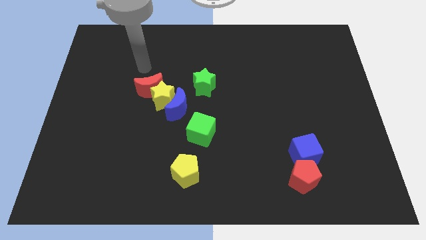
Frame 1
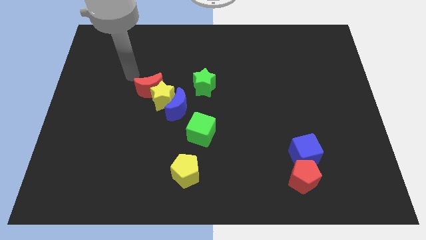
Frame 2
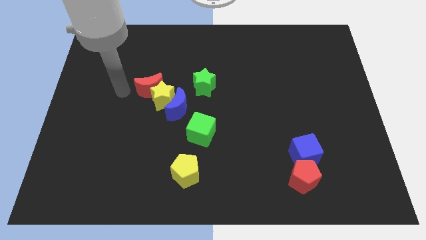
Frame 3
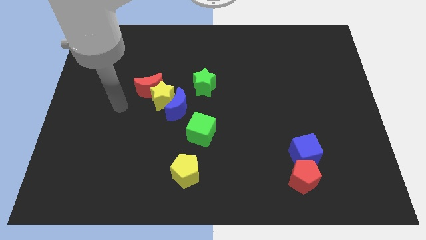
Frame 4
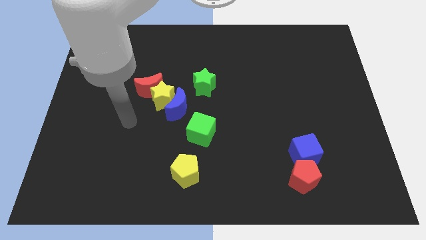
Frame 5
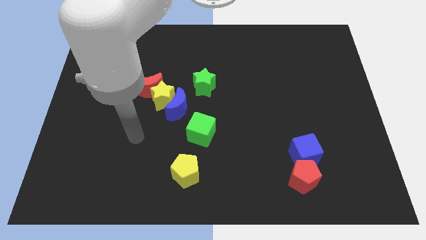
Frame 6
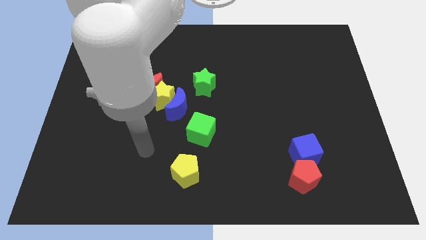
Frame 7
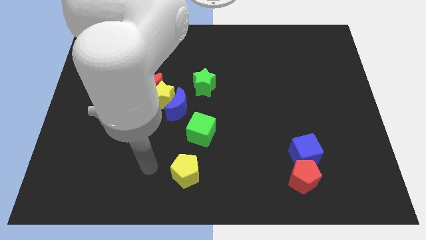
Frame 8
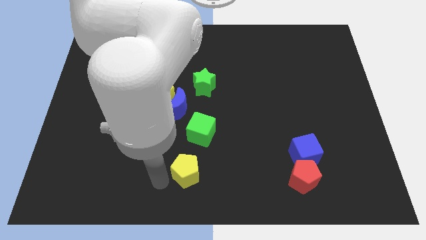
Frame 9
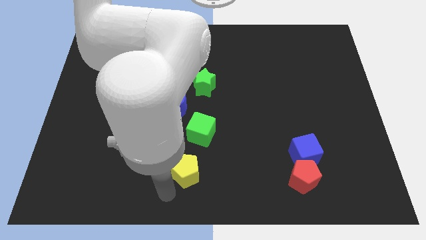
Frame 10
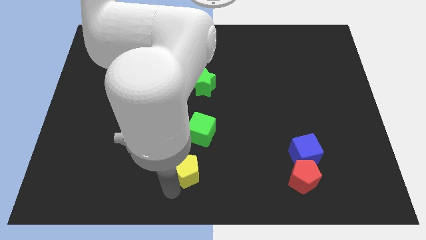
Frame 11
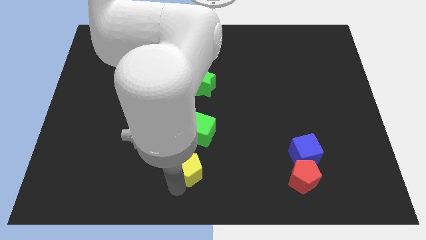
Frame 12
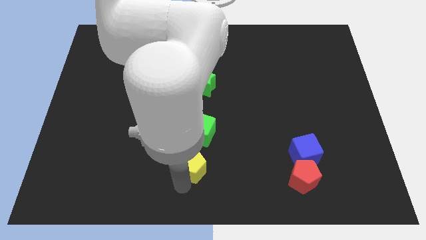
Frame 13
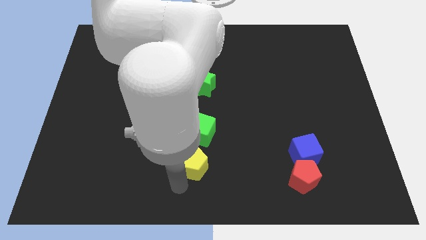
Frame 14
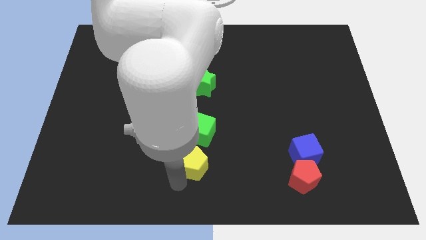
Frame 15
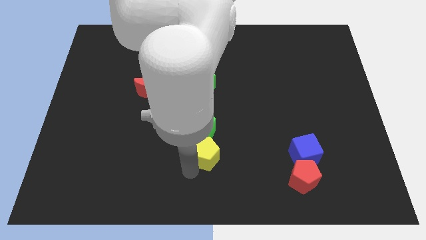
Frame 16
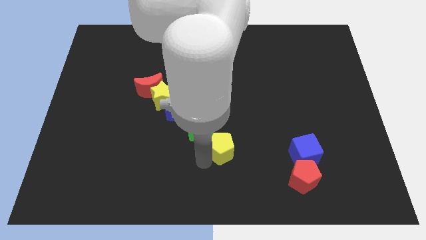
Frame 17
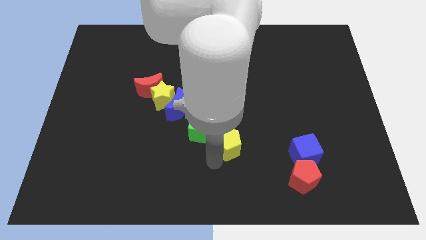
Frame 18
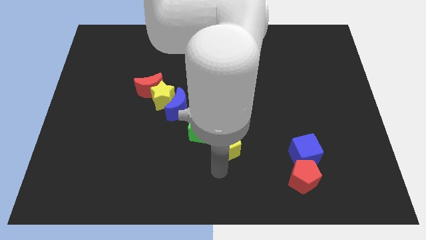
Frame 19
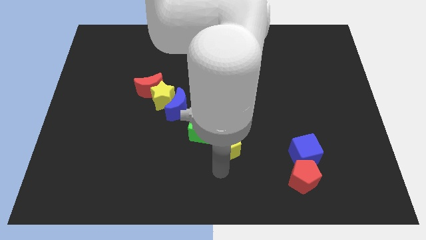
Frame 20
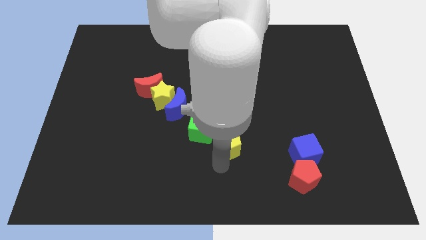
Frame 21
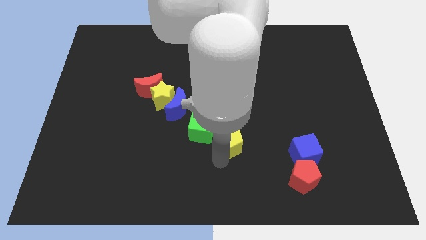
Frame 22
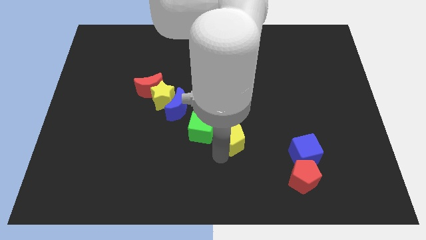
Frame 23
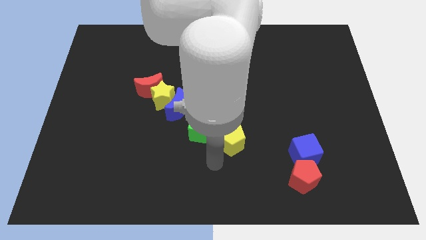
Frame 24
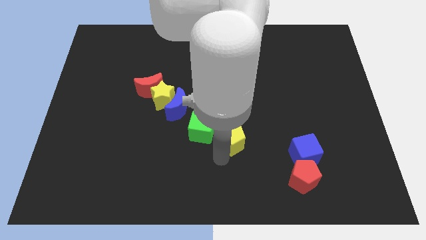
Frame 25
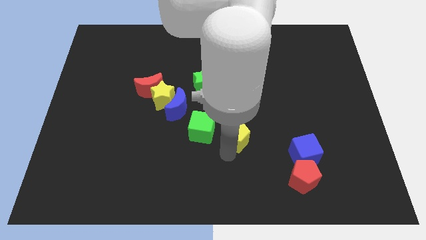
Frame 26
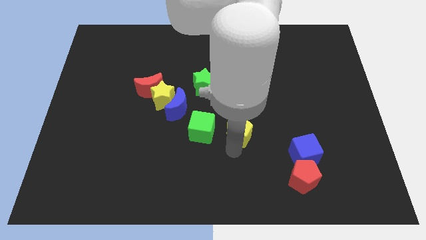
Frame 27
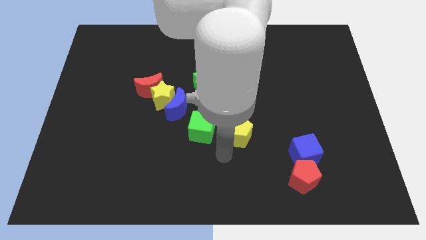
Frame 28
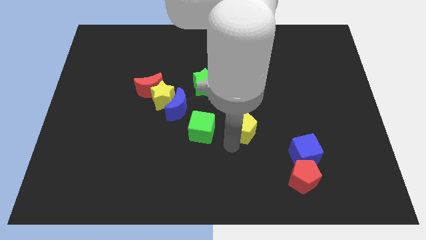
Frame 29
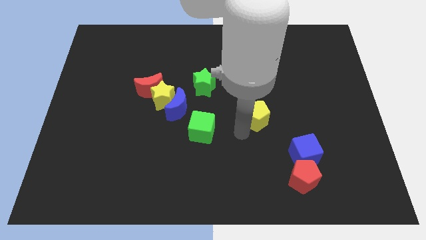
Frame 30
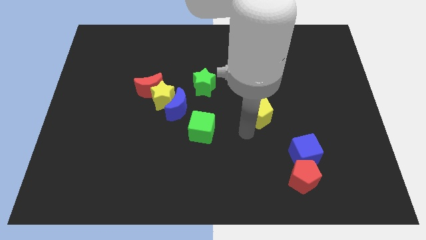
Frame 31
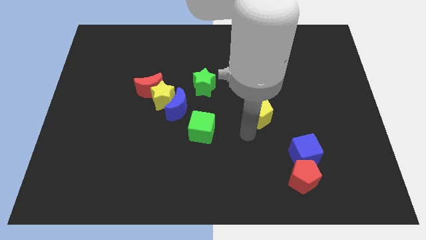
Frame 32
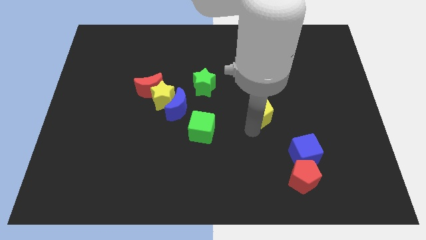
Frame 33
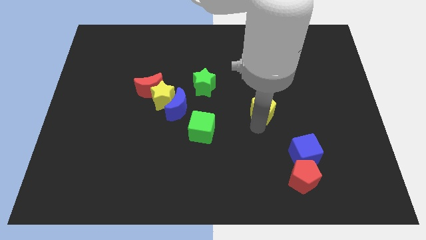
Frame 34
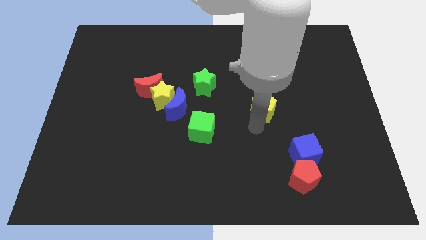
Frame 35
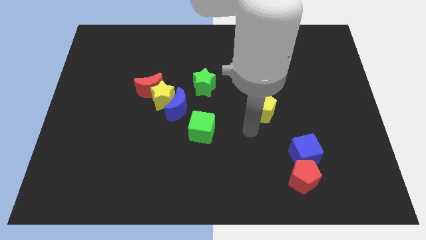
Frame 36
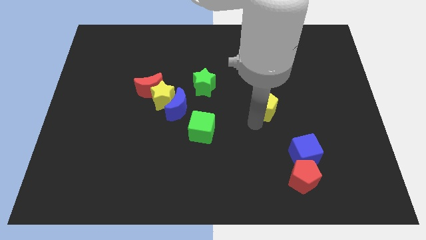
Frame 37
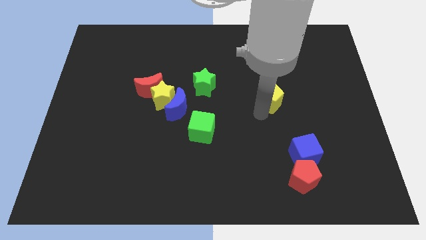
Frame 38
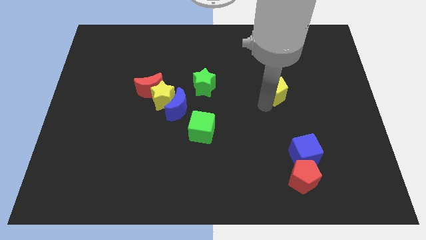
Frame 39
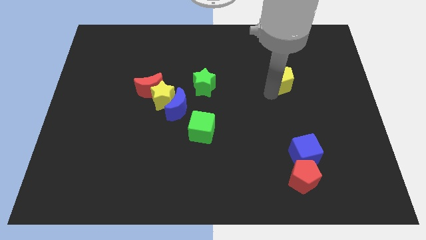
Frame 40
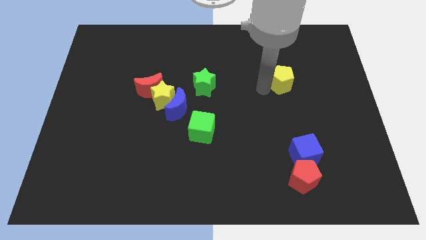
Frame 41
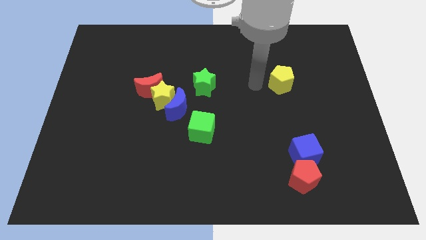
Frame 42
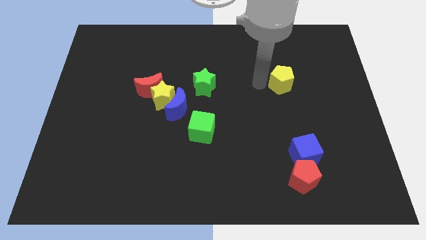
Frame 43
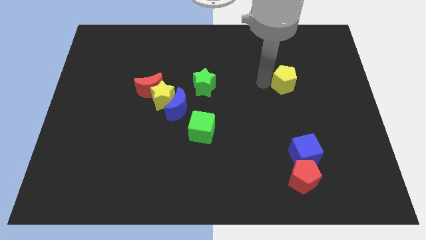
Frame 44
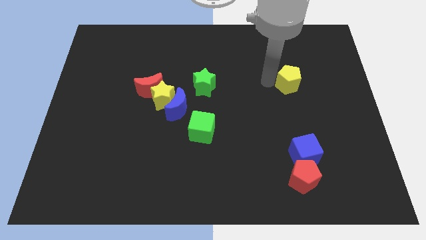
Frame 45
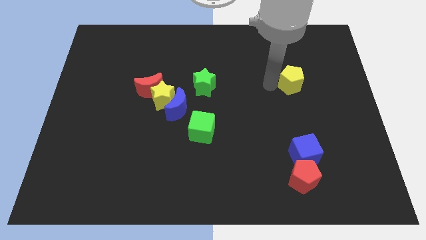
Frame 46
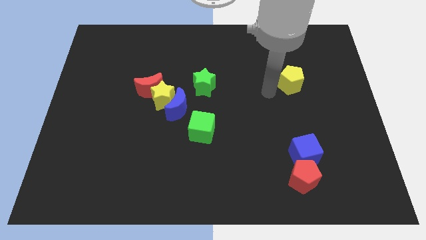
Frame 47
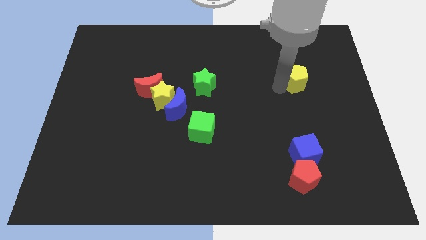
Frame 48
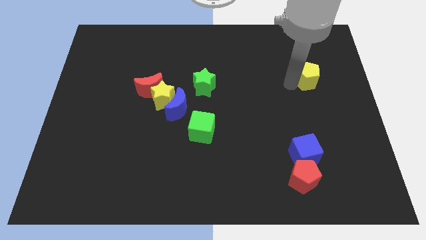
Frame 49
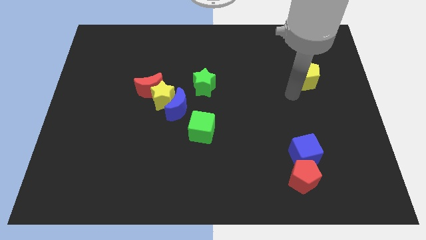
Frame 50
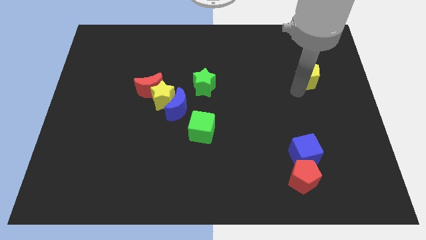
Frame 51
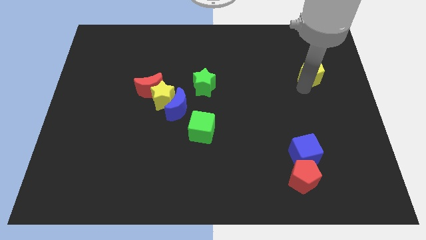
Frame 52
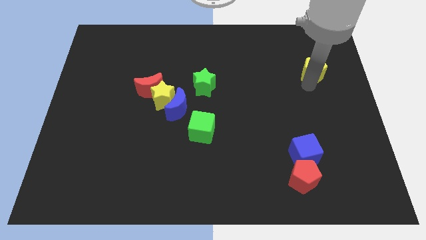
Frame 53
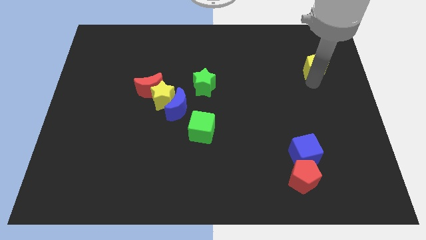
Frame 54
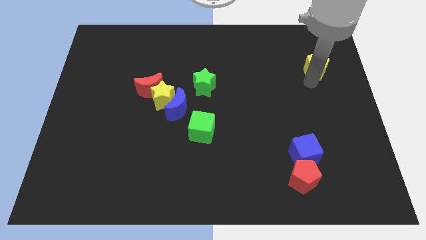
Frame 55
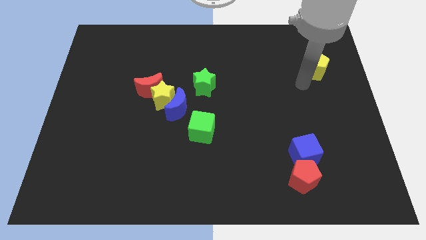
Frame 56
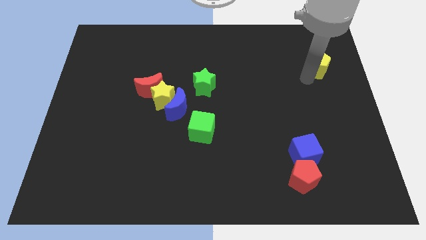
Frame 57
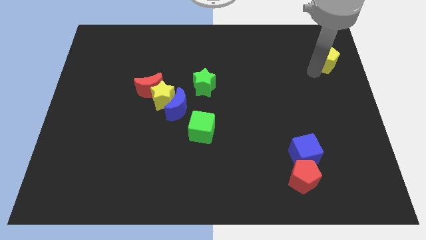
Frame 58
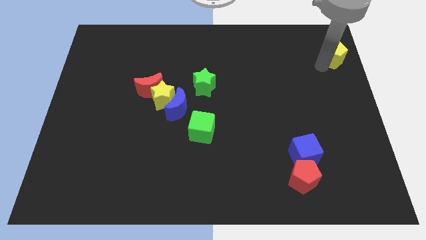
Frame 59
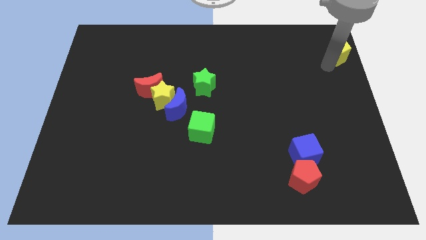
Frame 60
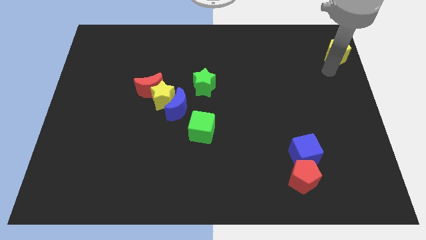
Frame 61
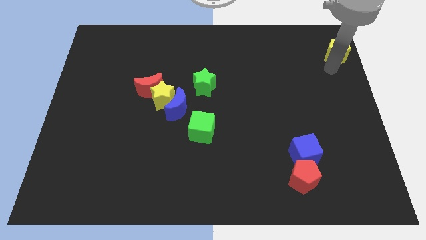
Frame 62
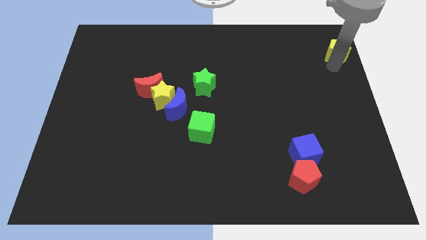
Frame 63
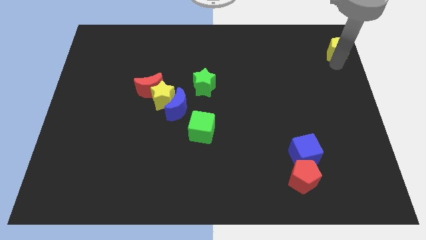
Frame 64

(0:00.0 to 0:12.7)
put the yellow pentagon to the top right of the board
